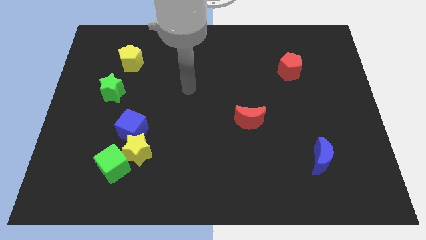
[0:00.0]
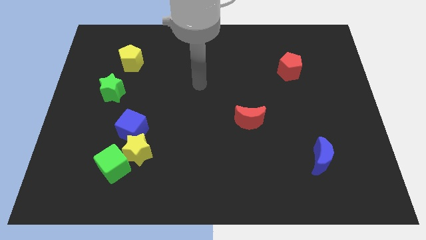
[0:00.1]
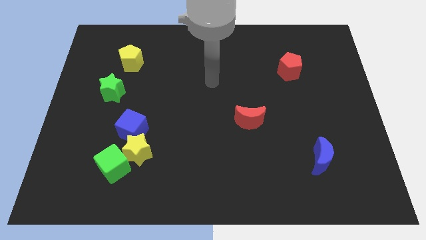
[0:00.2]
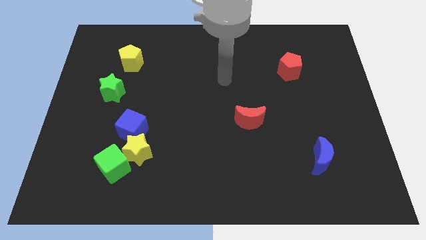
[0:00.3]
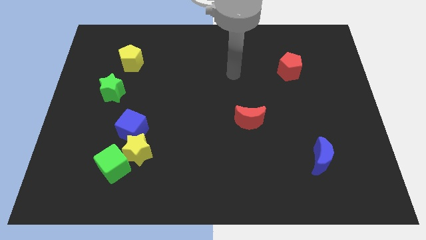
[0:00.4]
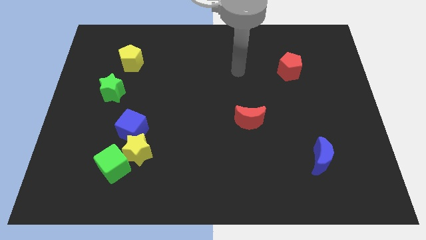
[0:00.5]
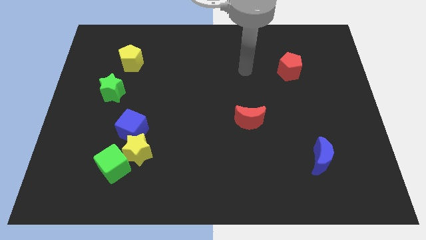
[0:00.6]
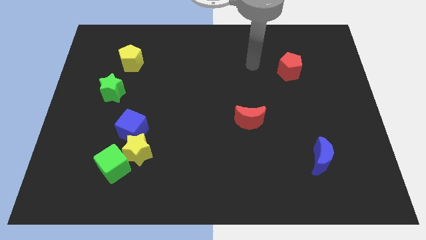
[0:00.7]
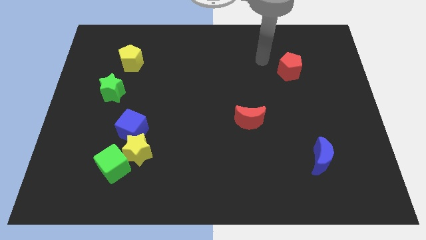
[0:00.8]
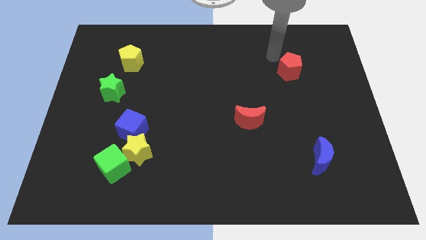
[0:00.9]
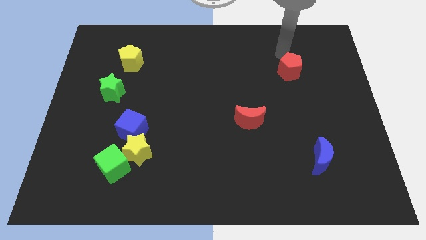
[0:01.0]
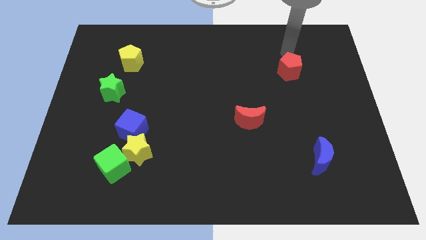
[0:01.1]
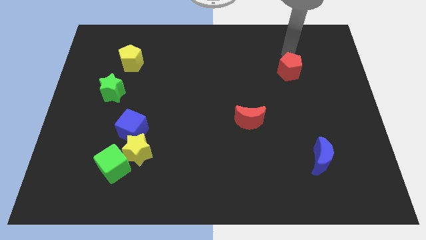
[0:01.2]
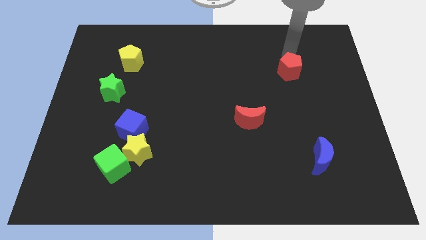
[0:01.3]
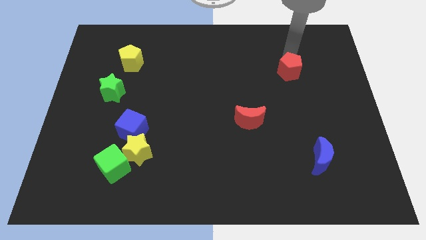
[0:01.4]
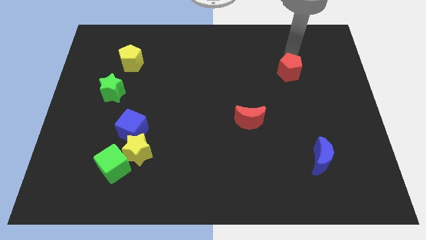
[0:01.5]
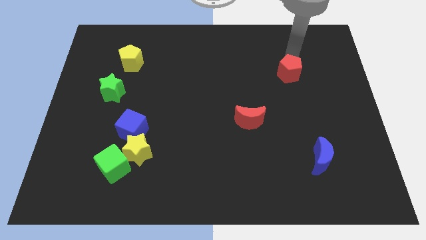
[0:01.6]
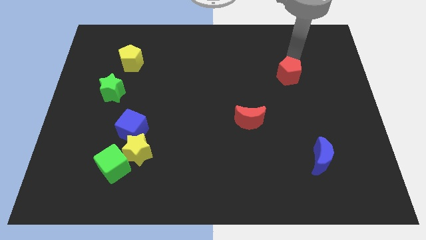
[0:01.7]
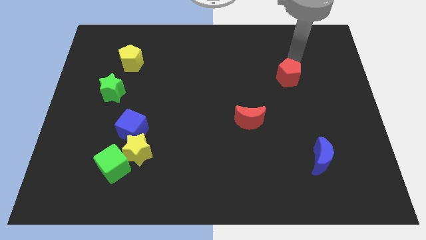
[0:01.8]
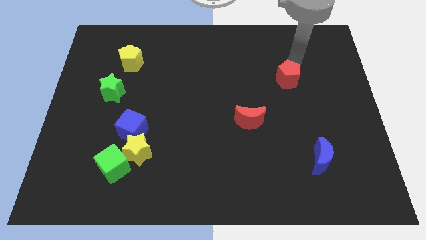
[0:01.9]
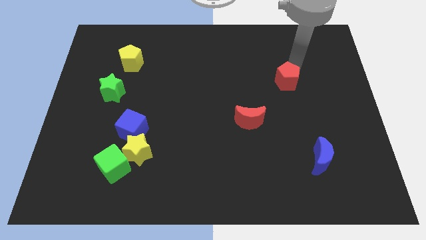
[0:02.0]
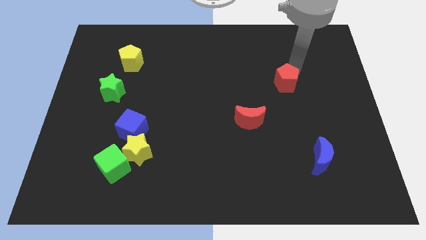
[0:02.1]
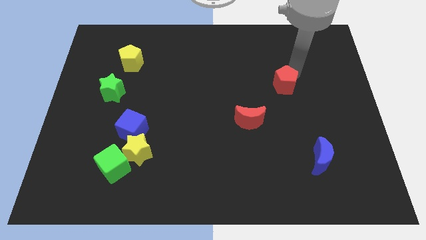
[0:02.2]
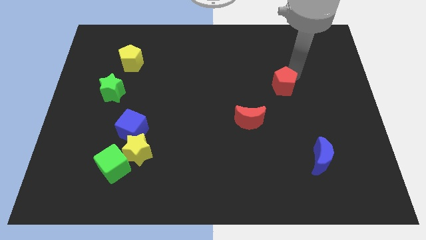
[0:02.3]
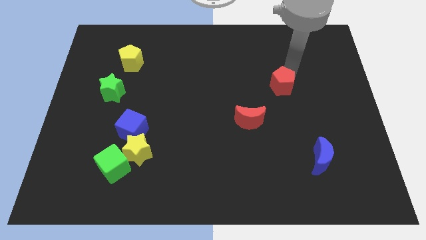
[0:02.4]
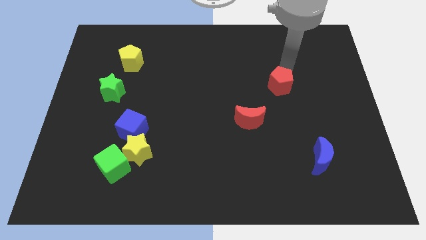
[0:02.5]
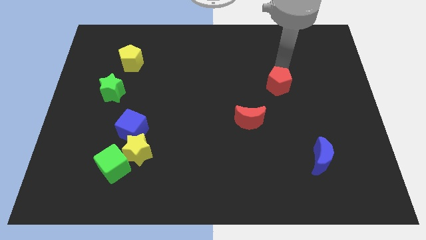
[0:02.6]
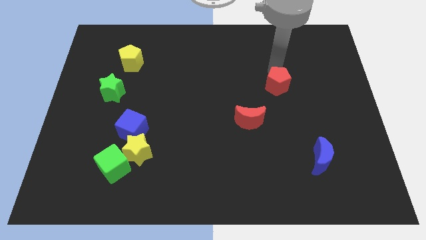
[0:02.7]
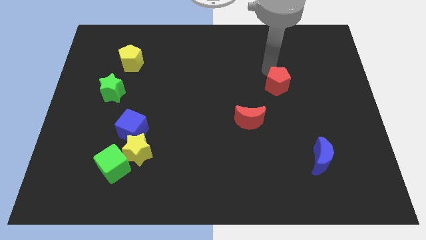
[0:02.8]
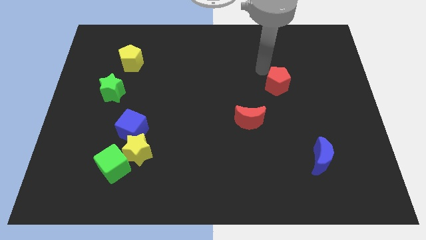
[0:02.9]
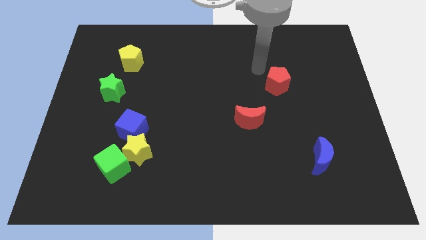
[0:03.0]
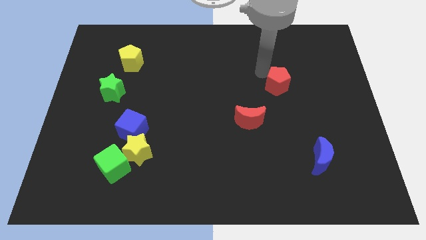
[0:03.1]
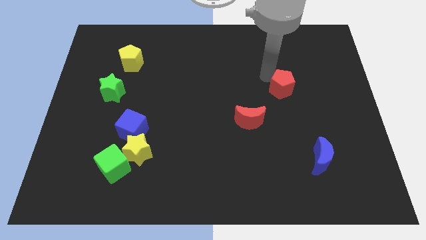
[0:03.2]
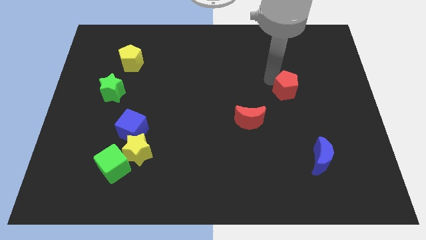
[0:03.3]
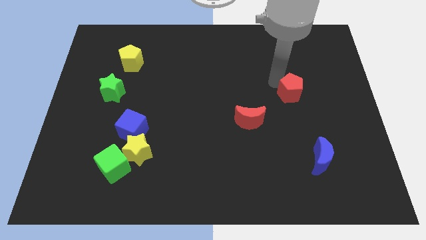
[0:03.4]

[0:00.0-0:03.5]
slide the red pentagon downwards slightly

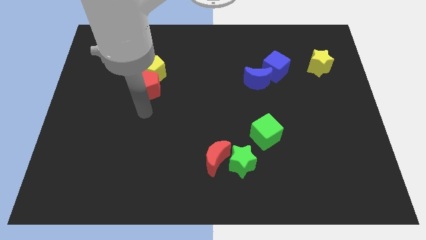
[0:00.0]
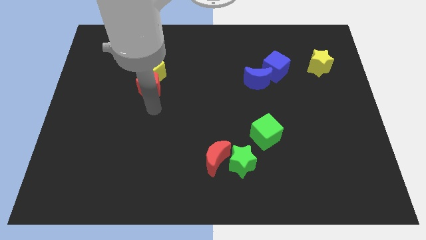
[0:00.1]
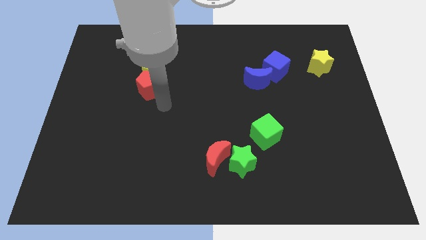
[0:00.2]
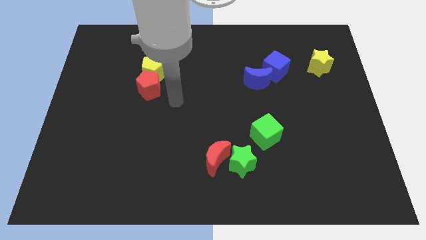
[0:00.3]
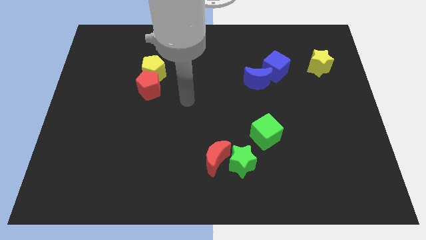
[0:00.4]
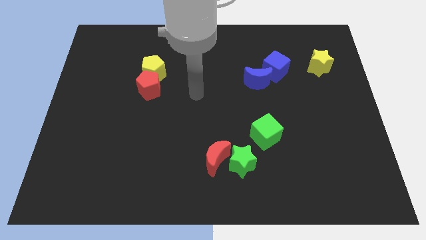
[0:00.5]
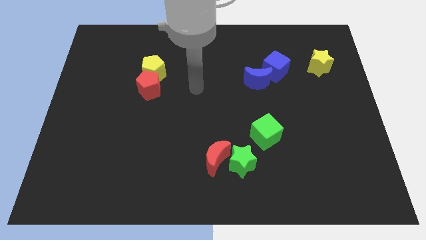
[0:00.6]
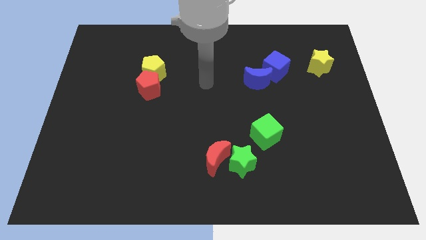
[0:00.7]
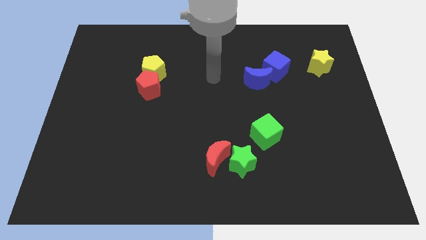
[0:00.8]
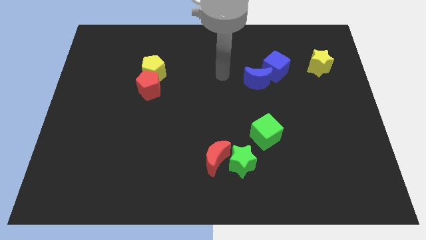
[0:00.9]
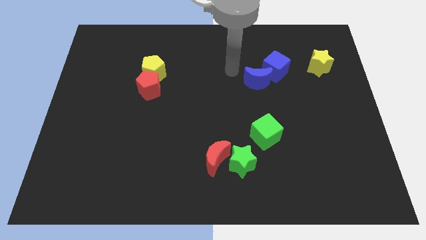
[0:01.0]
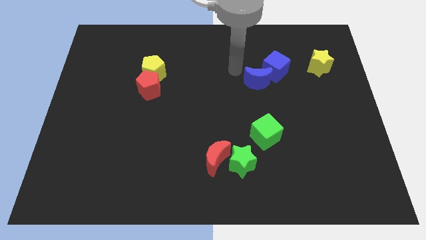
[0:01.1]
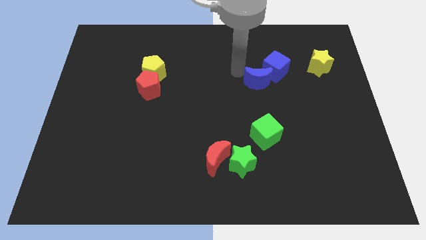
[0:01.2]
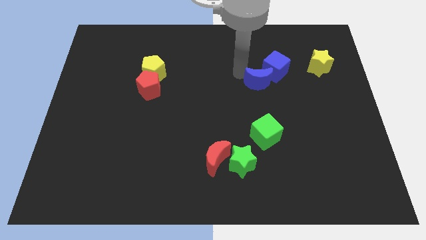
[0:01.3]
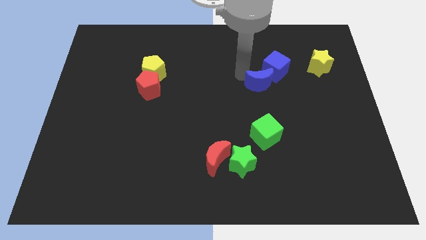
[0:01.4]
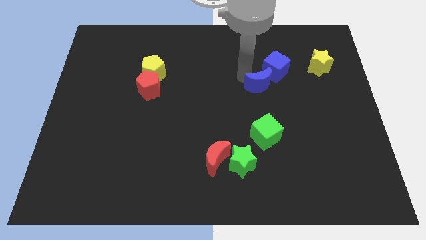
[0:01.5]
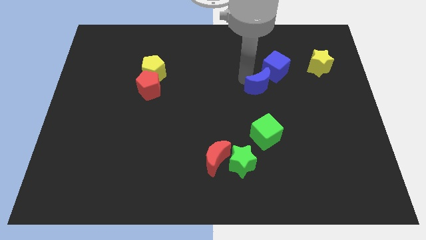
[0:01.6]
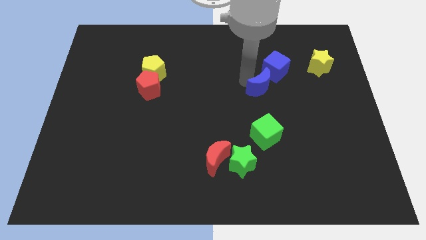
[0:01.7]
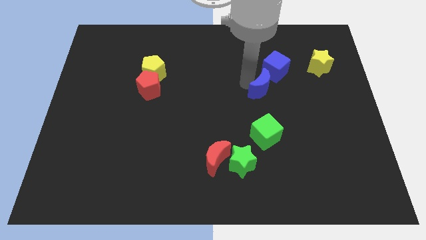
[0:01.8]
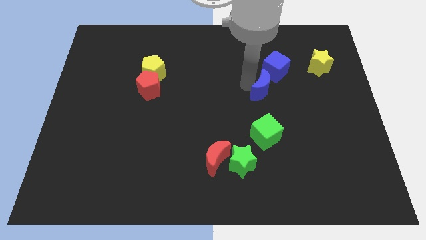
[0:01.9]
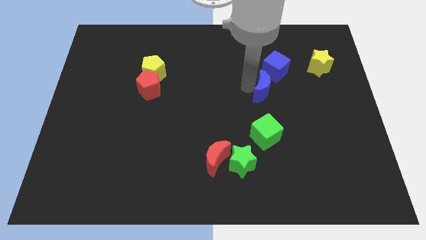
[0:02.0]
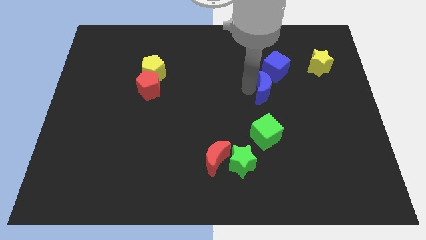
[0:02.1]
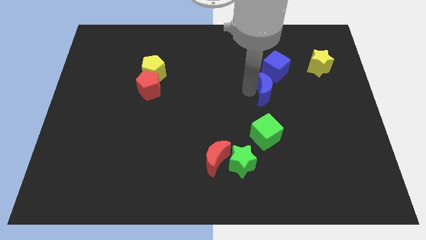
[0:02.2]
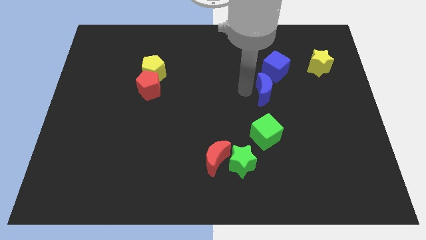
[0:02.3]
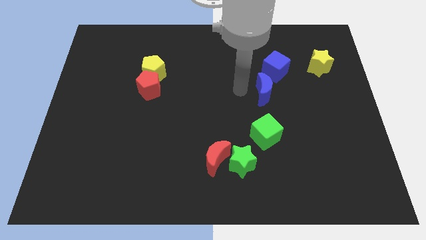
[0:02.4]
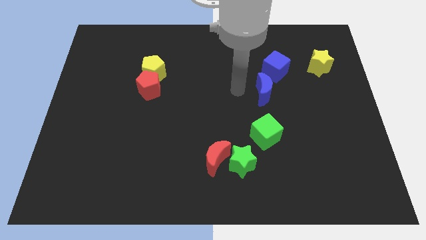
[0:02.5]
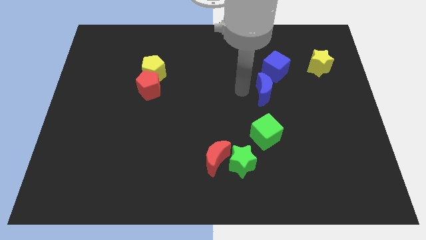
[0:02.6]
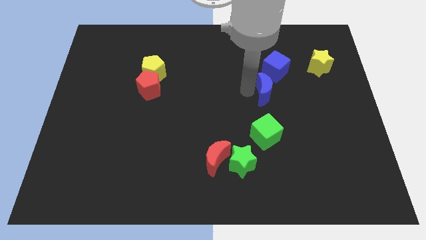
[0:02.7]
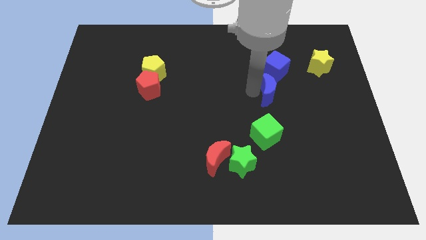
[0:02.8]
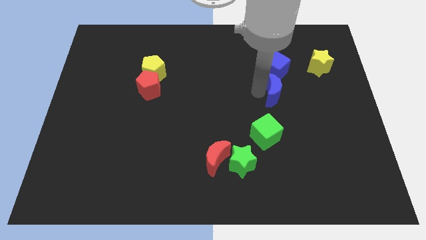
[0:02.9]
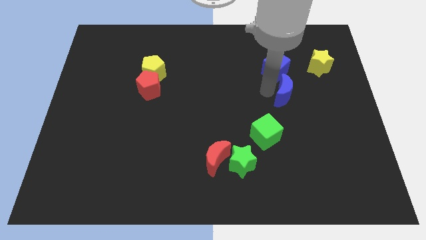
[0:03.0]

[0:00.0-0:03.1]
move the blue moon downwards and then right a little

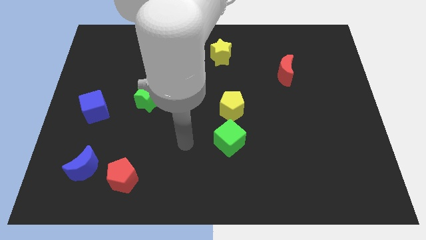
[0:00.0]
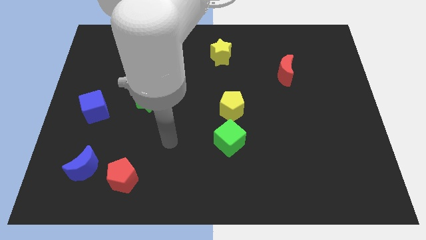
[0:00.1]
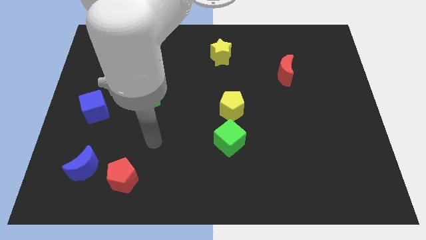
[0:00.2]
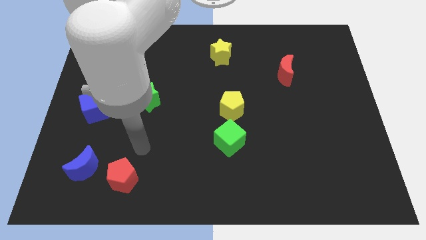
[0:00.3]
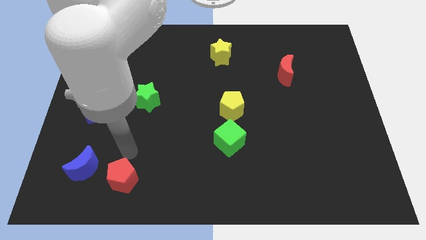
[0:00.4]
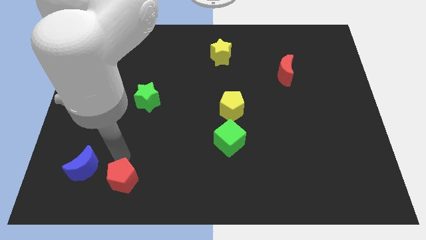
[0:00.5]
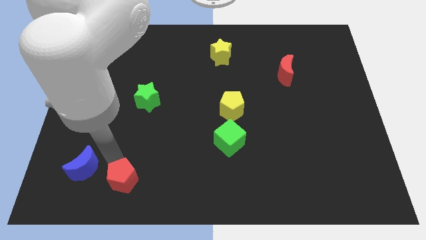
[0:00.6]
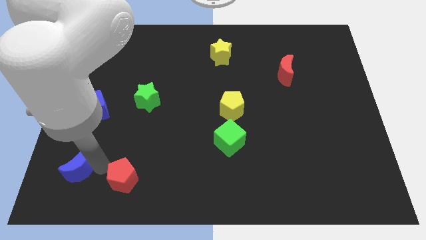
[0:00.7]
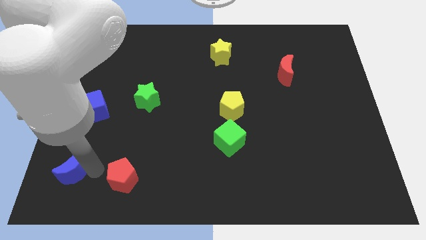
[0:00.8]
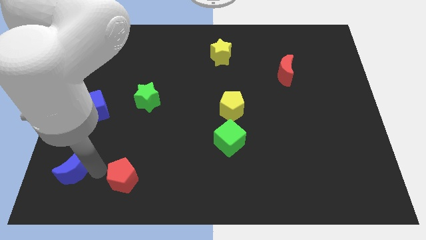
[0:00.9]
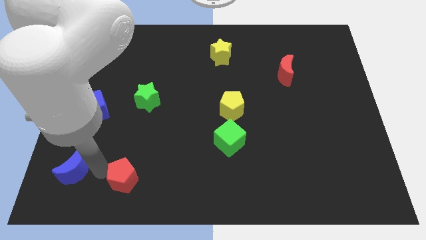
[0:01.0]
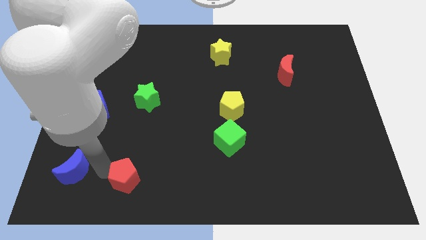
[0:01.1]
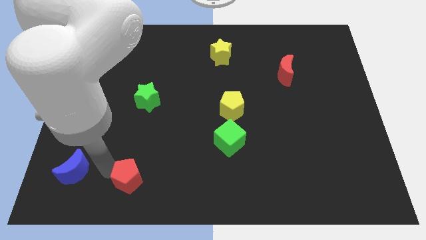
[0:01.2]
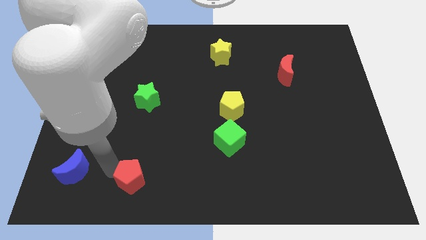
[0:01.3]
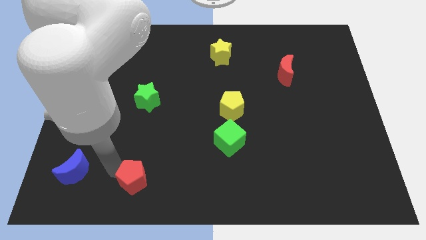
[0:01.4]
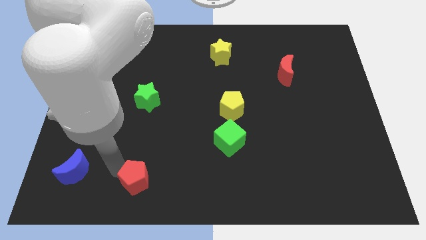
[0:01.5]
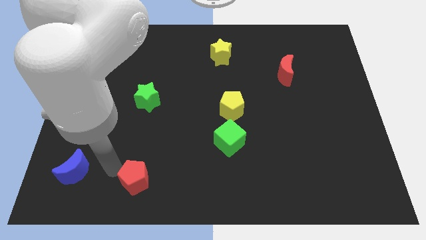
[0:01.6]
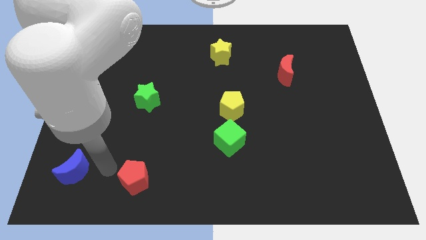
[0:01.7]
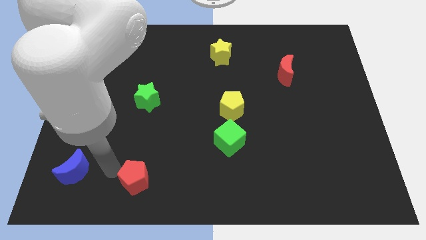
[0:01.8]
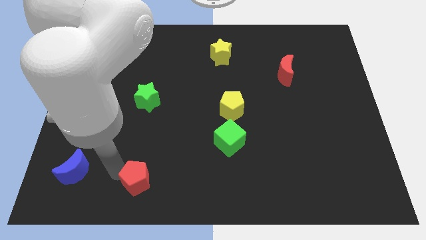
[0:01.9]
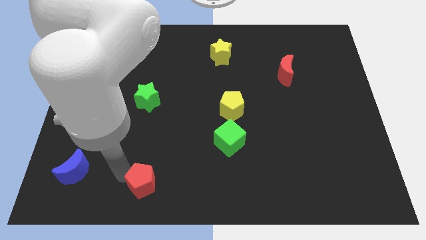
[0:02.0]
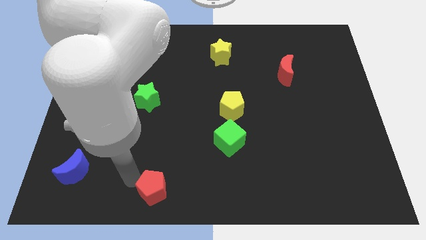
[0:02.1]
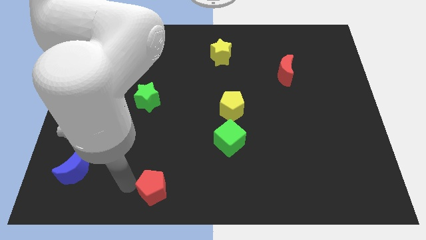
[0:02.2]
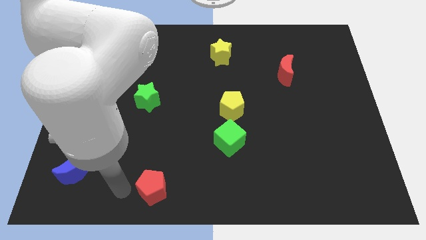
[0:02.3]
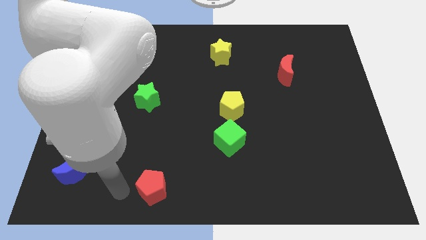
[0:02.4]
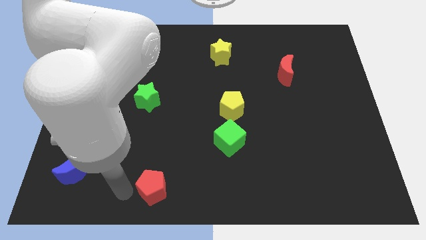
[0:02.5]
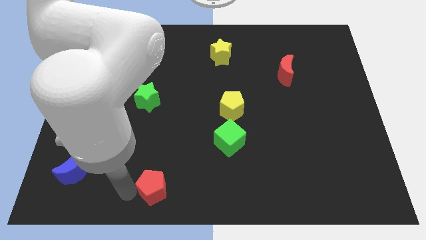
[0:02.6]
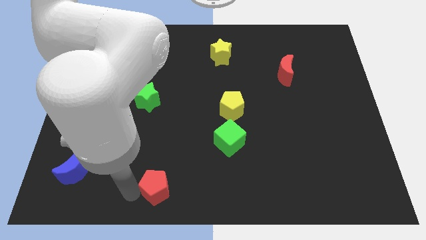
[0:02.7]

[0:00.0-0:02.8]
slide the red pentagon to the right somewhat
